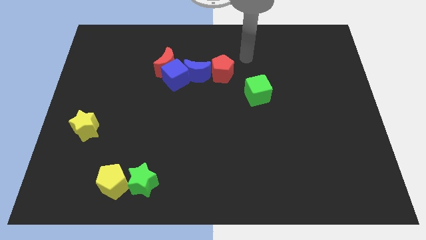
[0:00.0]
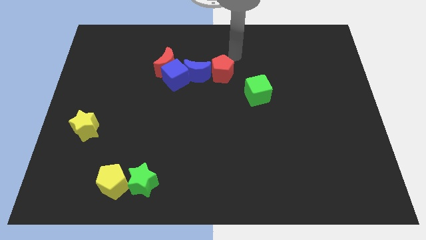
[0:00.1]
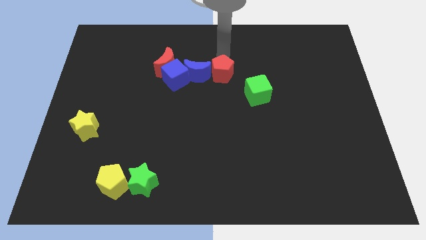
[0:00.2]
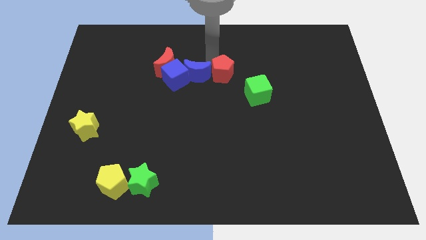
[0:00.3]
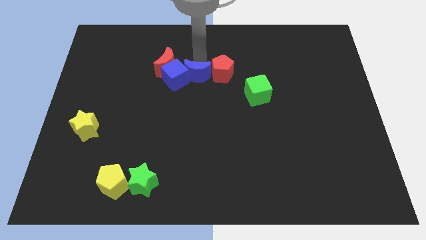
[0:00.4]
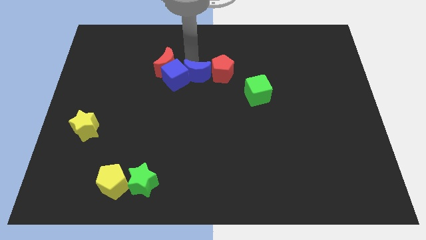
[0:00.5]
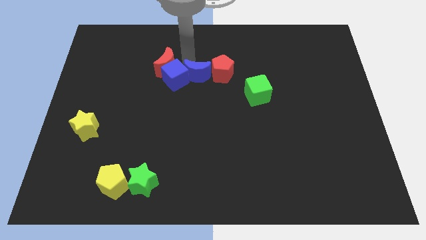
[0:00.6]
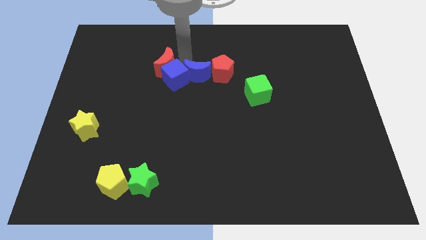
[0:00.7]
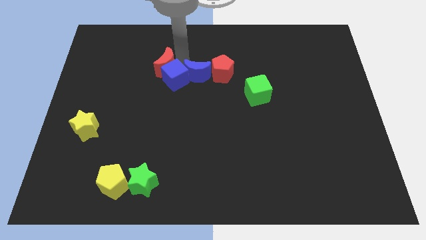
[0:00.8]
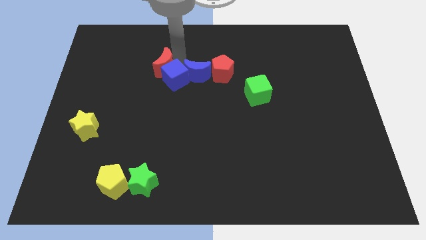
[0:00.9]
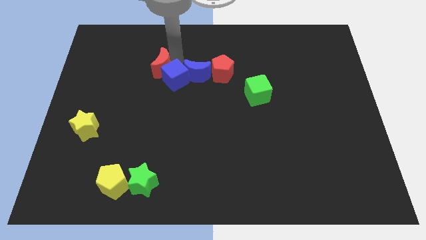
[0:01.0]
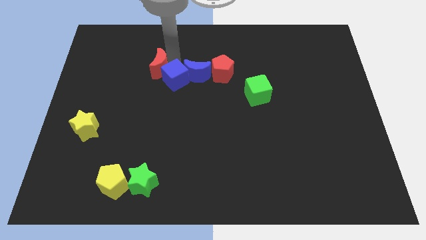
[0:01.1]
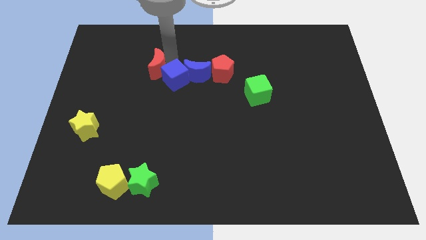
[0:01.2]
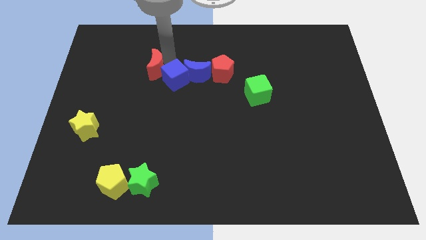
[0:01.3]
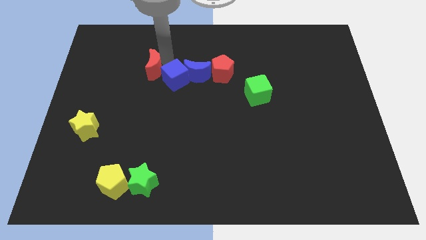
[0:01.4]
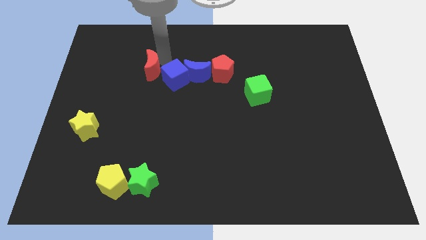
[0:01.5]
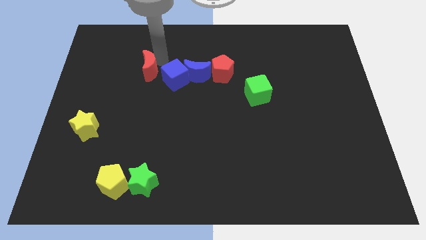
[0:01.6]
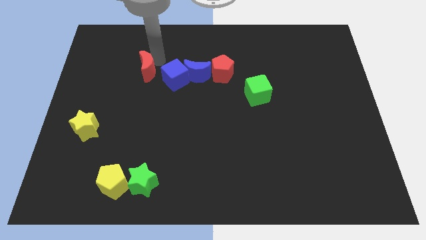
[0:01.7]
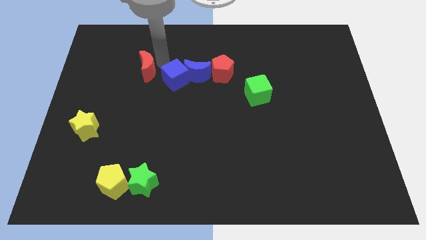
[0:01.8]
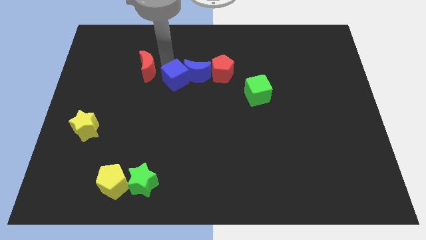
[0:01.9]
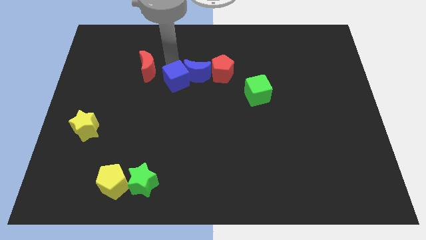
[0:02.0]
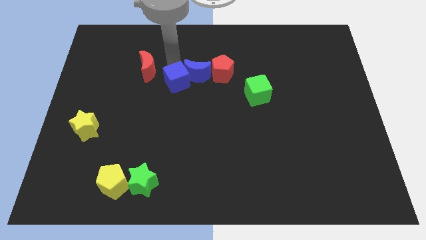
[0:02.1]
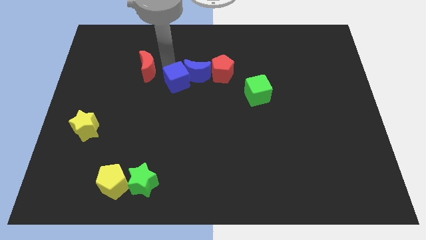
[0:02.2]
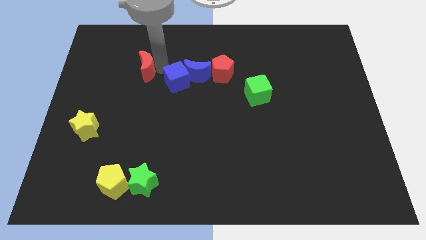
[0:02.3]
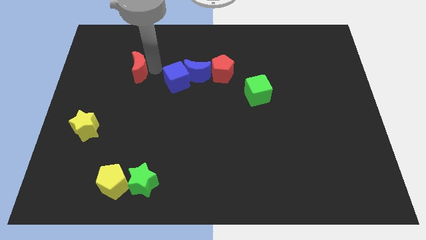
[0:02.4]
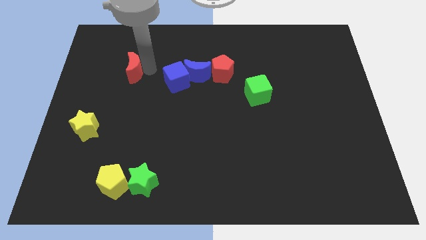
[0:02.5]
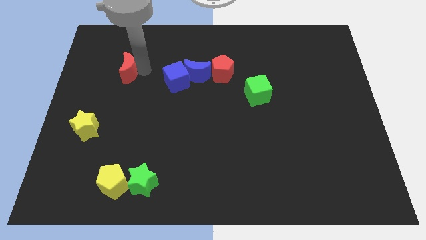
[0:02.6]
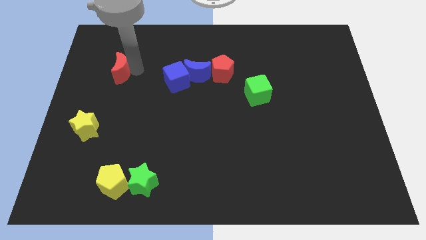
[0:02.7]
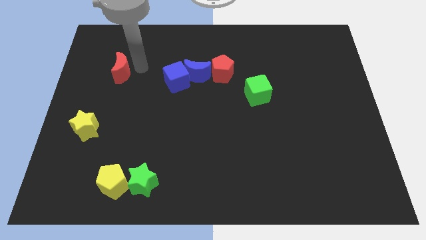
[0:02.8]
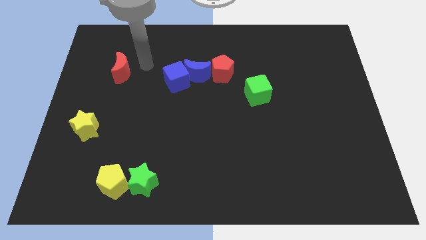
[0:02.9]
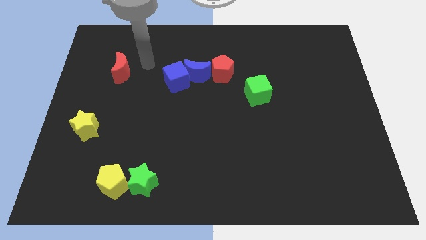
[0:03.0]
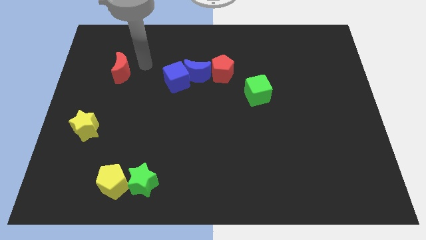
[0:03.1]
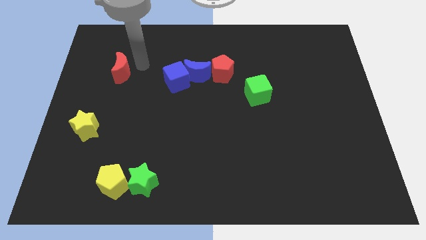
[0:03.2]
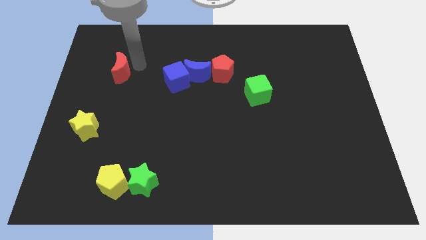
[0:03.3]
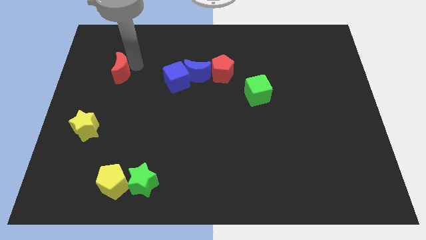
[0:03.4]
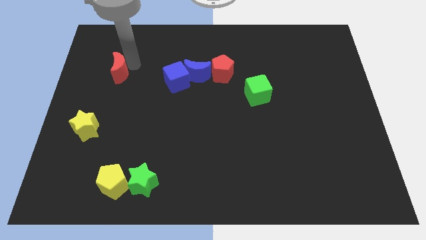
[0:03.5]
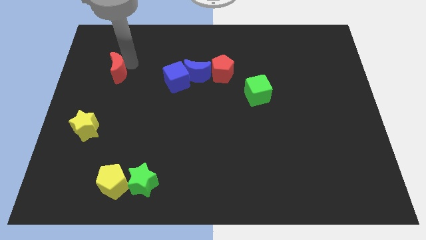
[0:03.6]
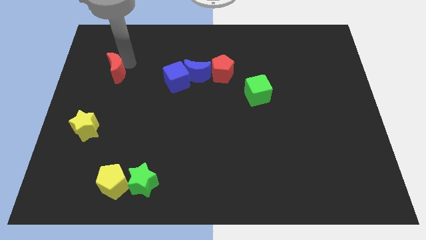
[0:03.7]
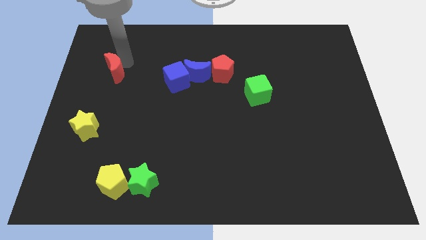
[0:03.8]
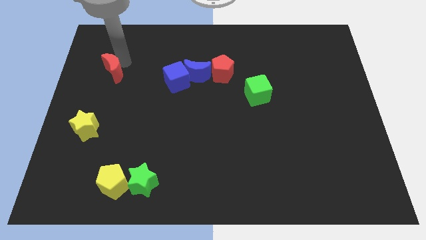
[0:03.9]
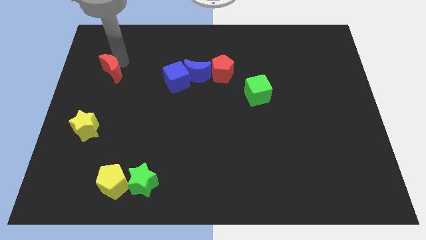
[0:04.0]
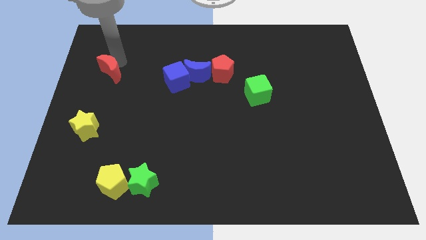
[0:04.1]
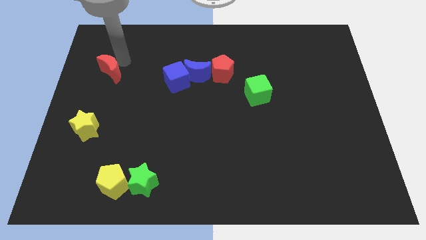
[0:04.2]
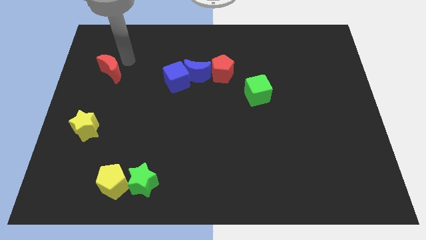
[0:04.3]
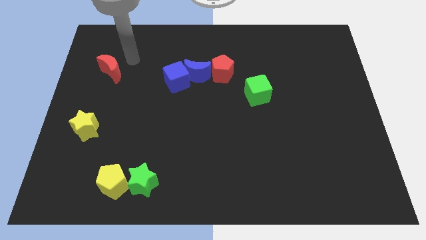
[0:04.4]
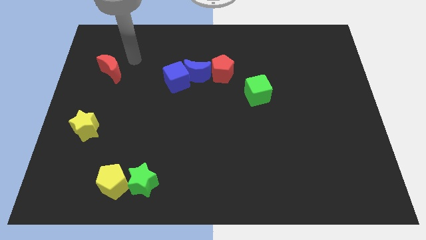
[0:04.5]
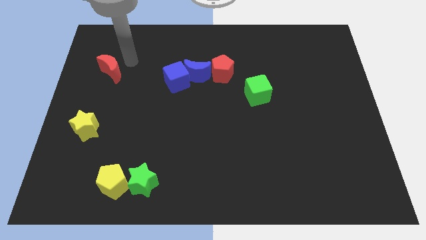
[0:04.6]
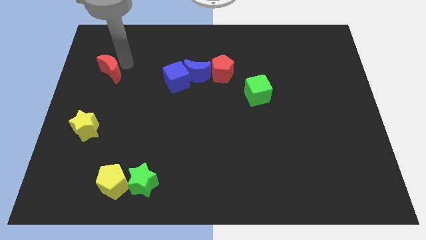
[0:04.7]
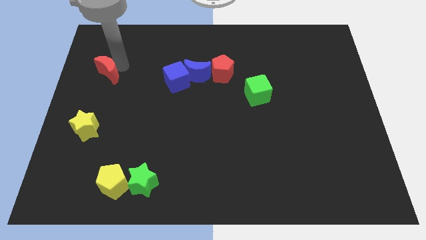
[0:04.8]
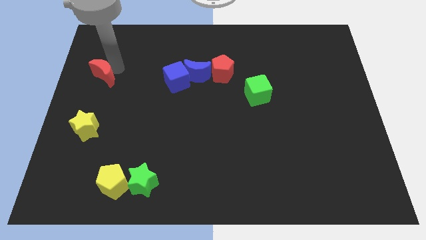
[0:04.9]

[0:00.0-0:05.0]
move the red moon to the left side

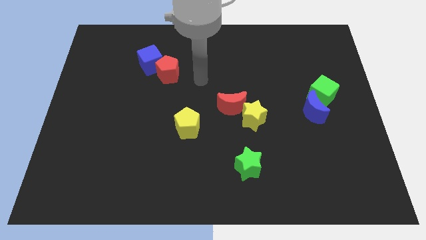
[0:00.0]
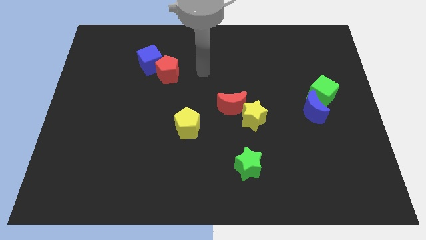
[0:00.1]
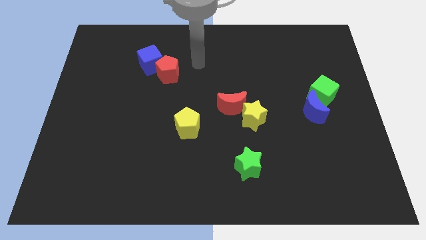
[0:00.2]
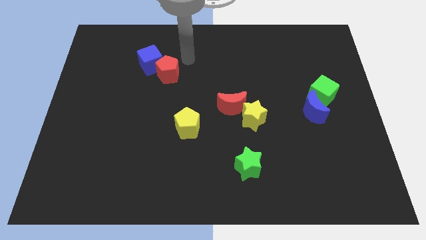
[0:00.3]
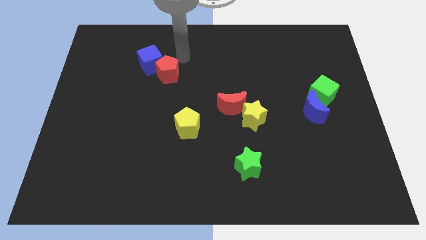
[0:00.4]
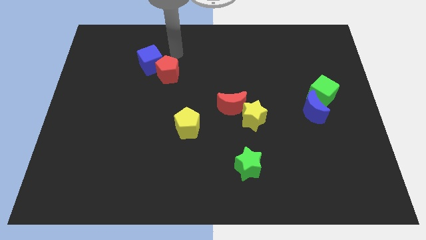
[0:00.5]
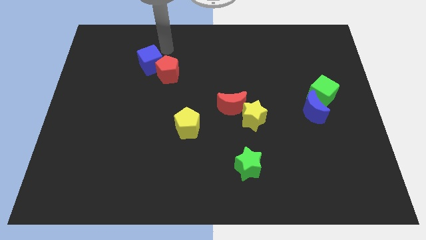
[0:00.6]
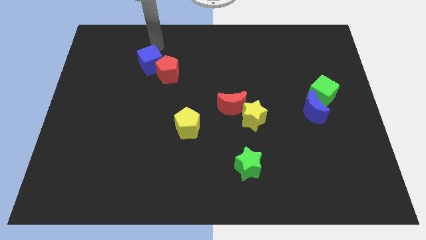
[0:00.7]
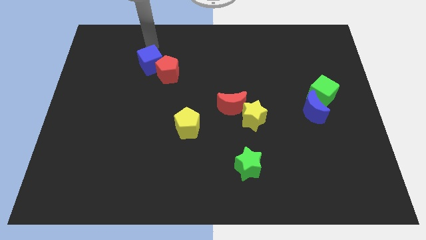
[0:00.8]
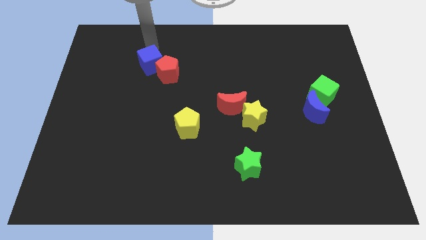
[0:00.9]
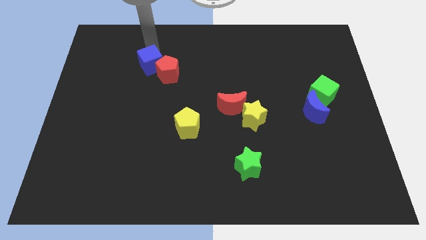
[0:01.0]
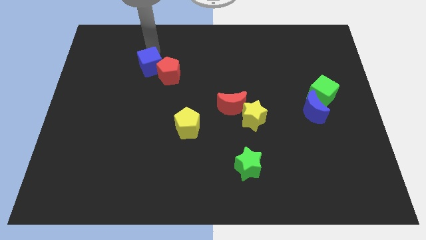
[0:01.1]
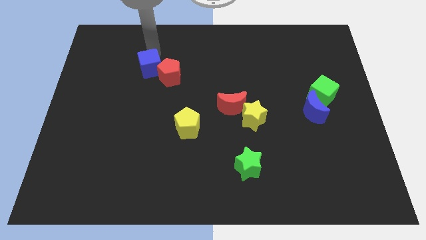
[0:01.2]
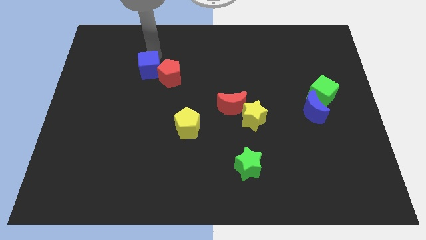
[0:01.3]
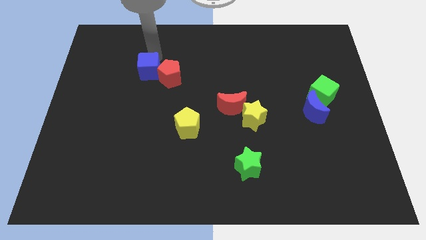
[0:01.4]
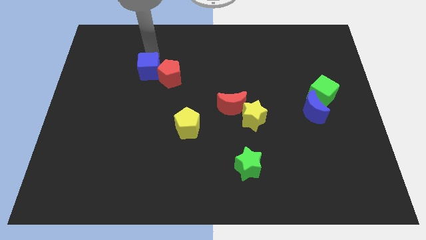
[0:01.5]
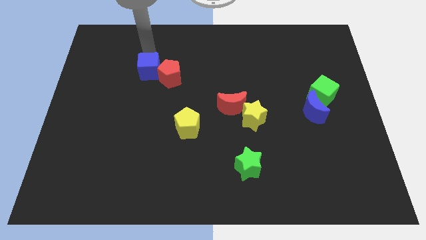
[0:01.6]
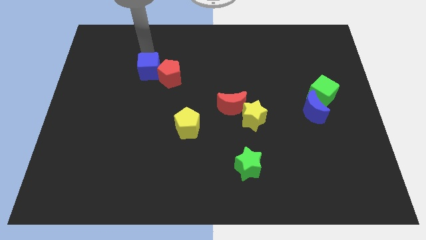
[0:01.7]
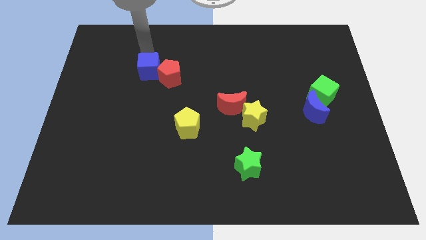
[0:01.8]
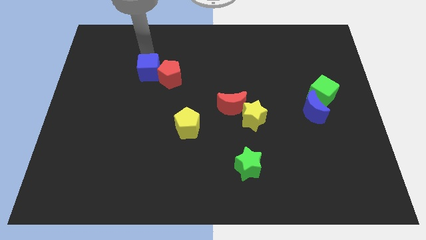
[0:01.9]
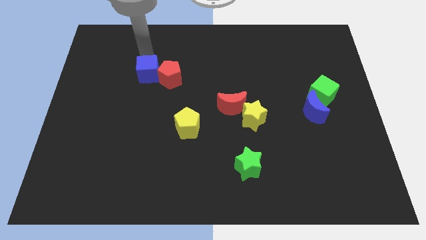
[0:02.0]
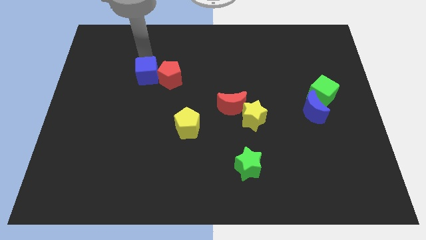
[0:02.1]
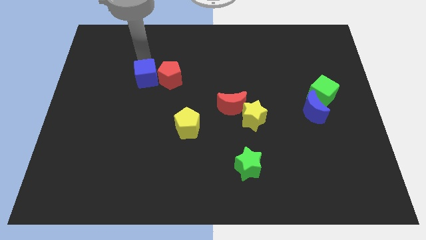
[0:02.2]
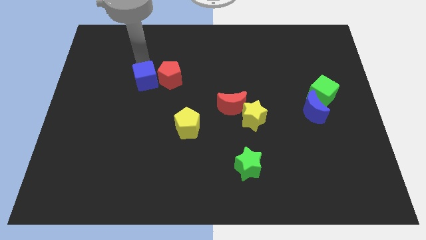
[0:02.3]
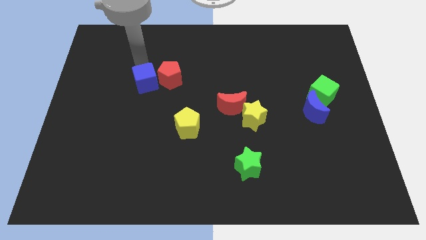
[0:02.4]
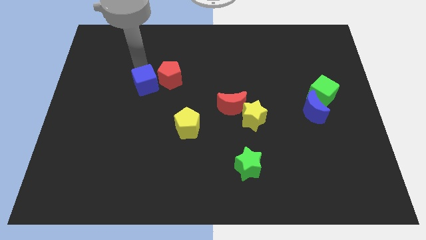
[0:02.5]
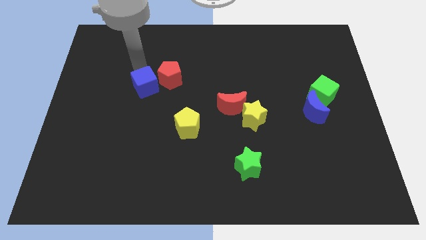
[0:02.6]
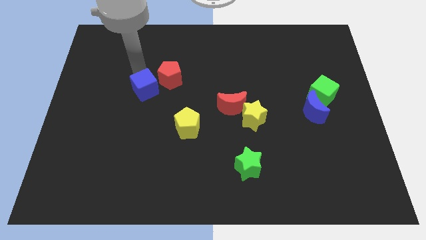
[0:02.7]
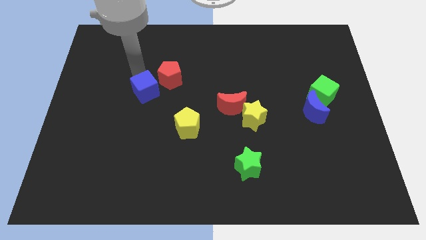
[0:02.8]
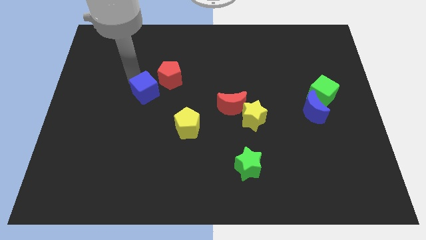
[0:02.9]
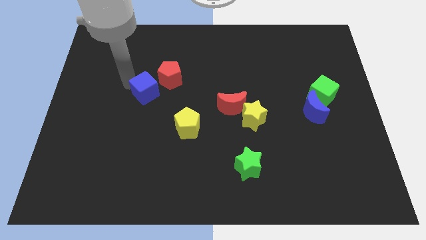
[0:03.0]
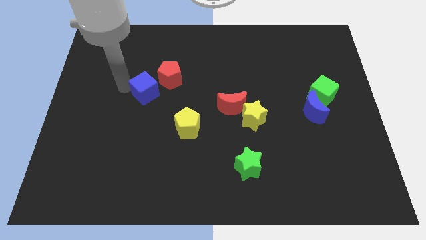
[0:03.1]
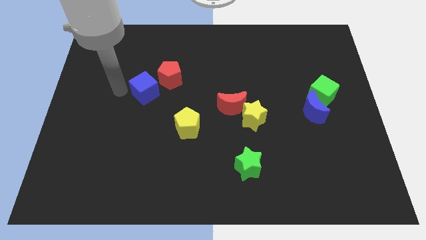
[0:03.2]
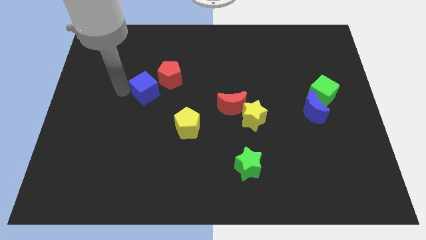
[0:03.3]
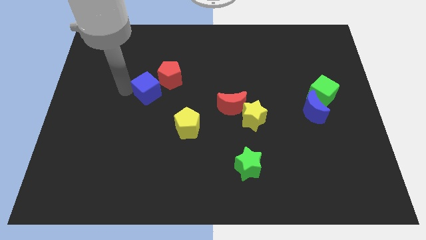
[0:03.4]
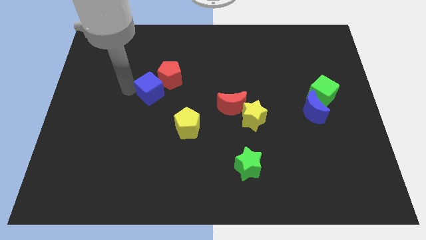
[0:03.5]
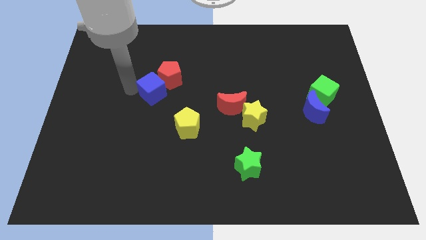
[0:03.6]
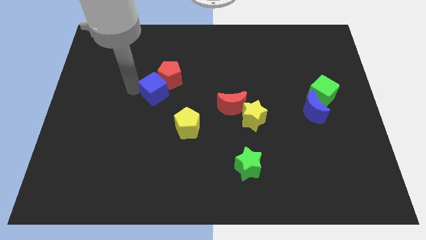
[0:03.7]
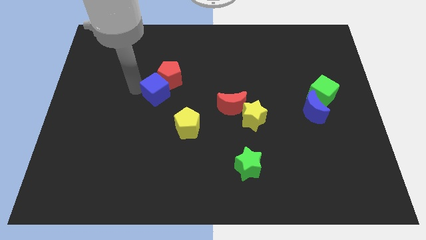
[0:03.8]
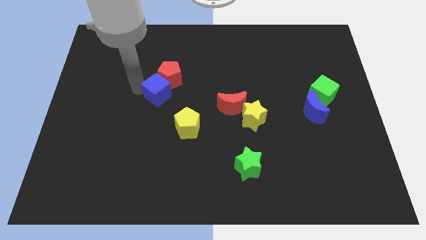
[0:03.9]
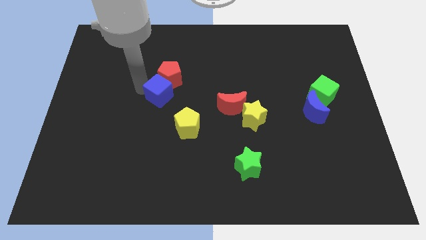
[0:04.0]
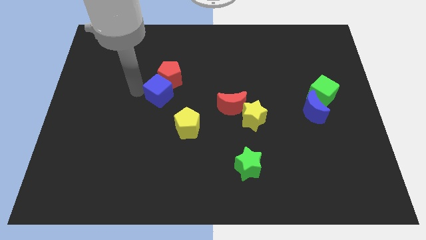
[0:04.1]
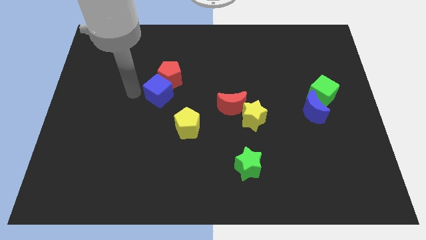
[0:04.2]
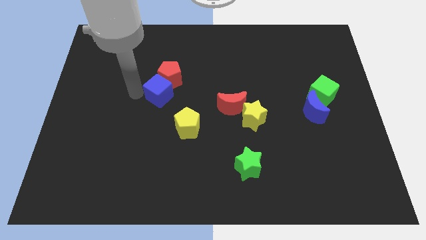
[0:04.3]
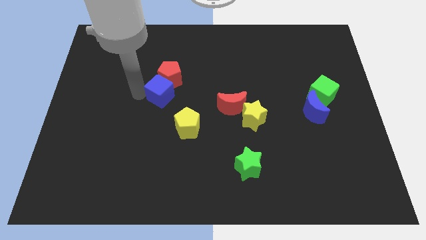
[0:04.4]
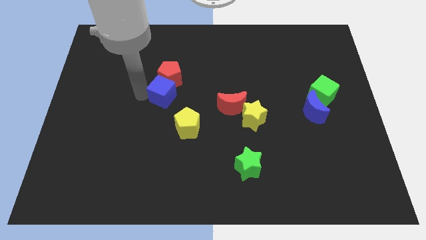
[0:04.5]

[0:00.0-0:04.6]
push the blue cube to the middle
